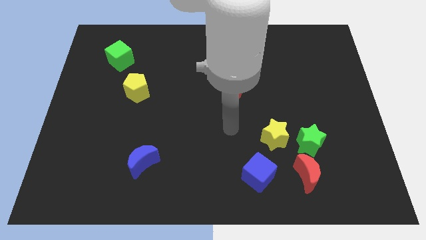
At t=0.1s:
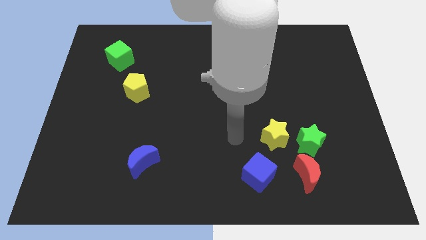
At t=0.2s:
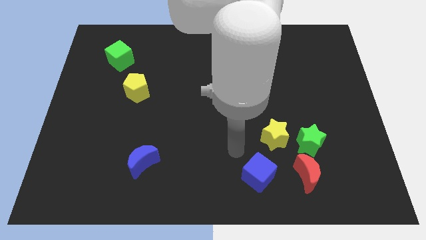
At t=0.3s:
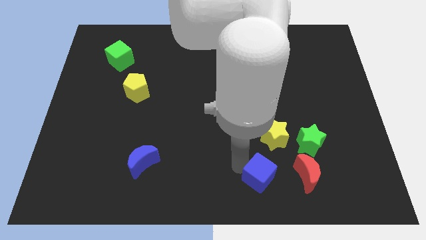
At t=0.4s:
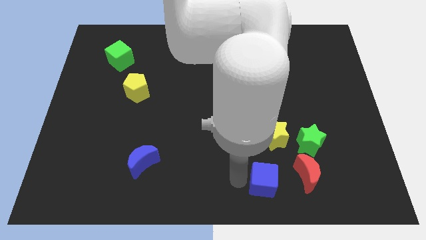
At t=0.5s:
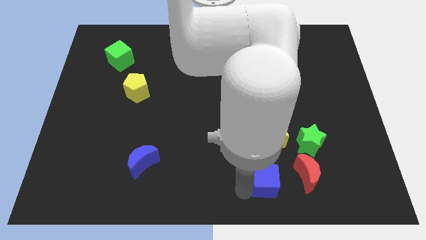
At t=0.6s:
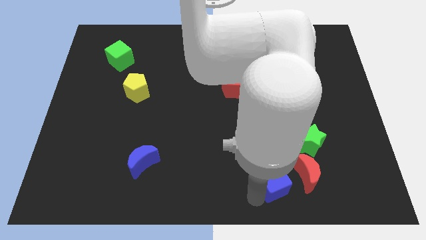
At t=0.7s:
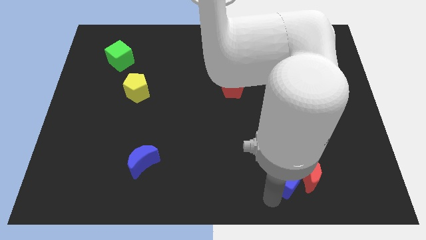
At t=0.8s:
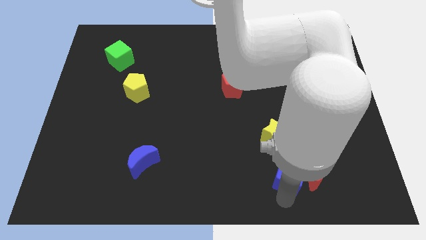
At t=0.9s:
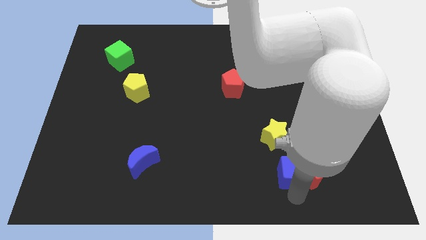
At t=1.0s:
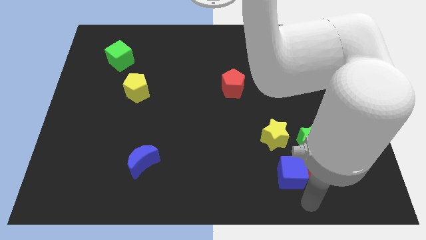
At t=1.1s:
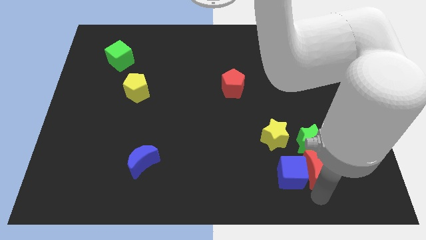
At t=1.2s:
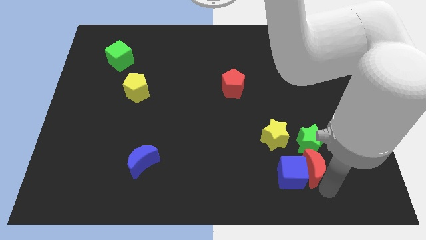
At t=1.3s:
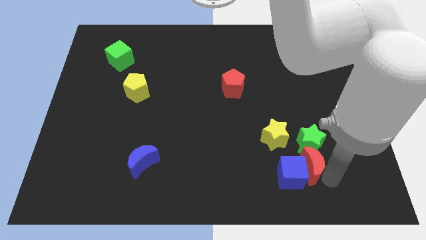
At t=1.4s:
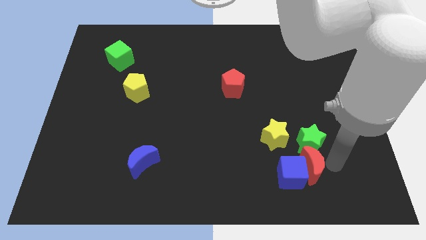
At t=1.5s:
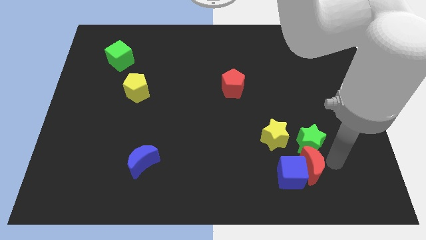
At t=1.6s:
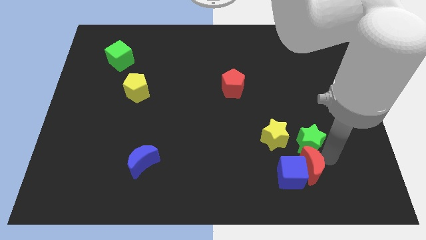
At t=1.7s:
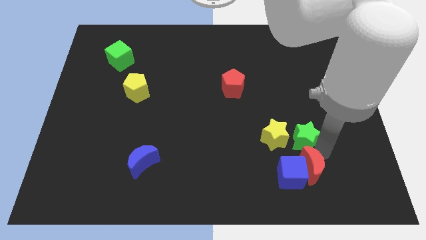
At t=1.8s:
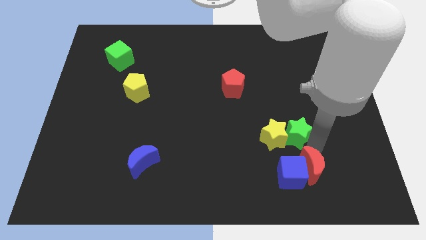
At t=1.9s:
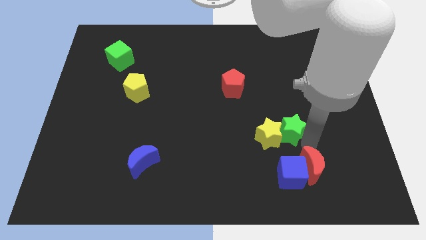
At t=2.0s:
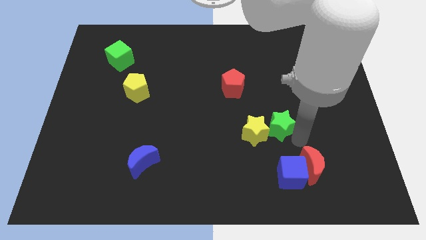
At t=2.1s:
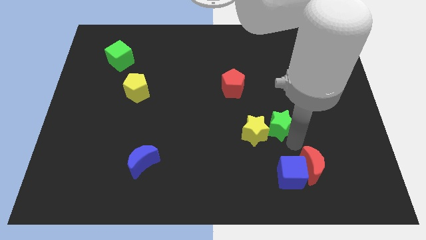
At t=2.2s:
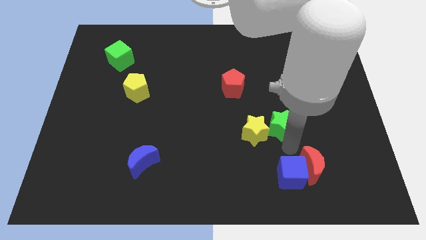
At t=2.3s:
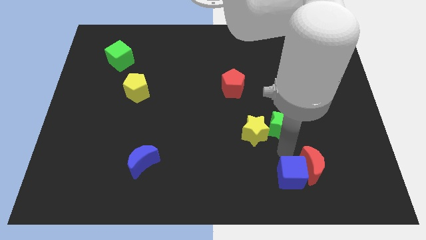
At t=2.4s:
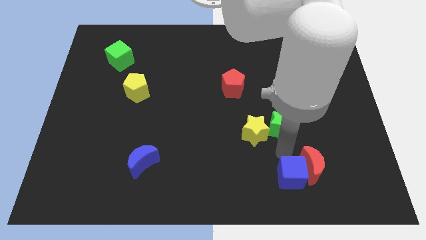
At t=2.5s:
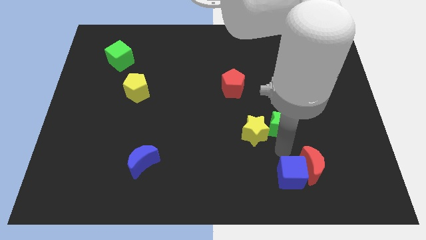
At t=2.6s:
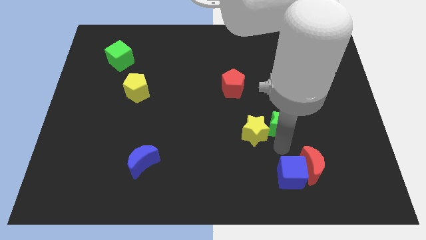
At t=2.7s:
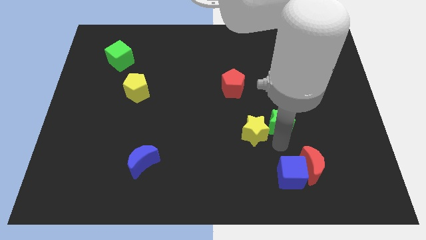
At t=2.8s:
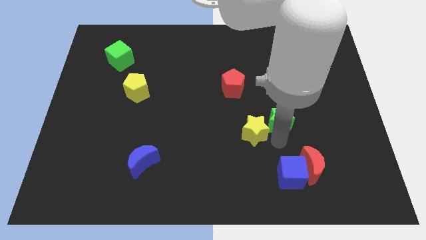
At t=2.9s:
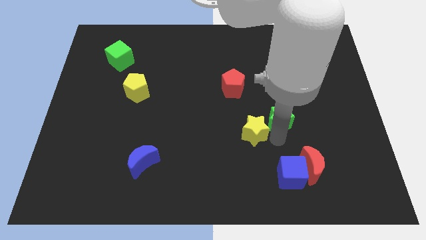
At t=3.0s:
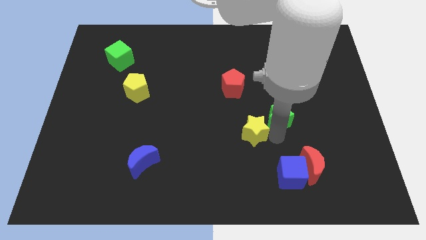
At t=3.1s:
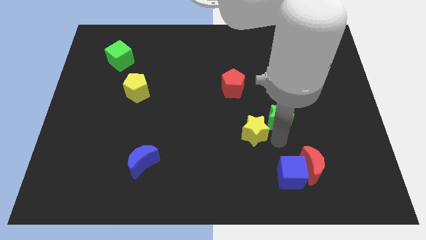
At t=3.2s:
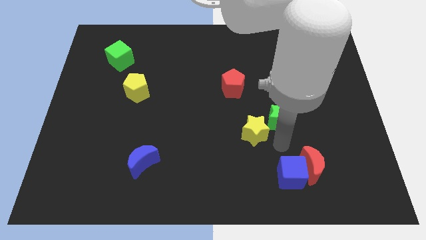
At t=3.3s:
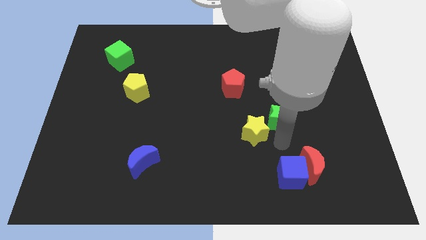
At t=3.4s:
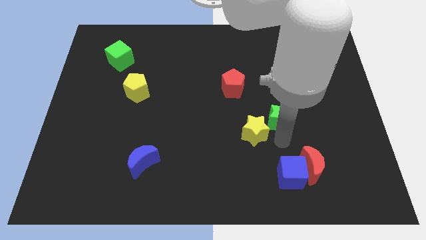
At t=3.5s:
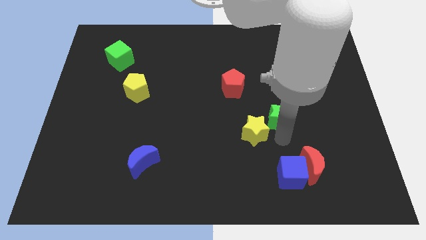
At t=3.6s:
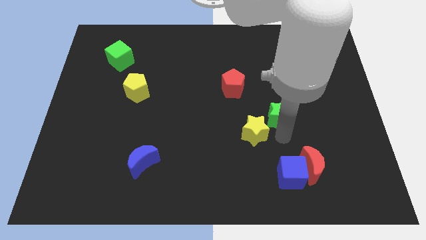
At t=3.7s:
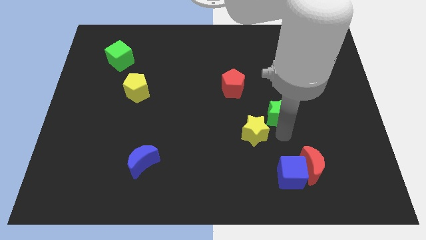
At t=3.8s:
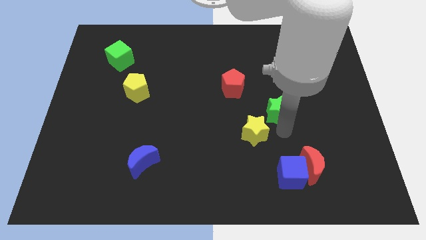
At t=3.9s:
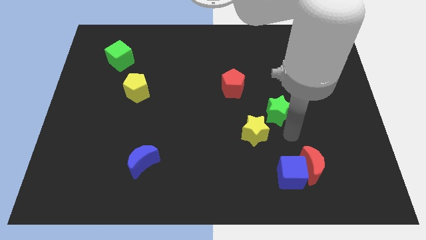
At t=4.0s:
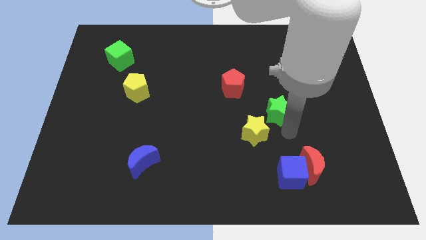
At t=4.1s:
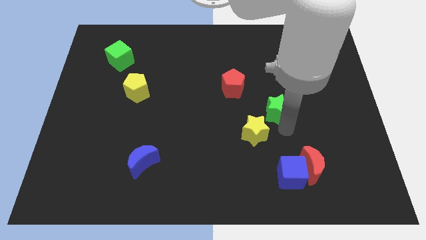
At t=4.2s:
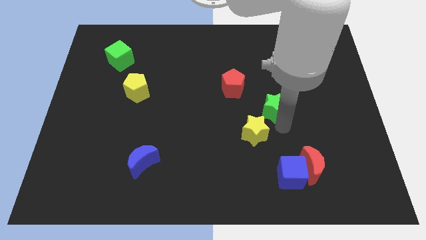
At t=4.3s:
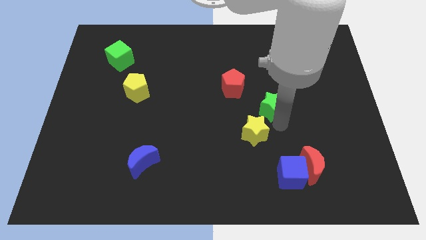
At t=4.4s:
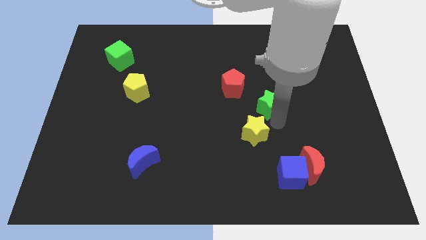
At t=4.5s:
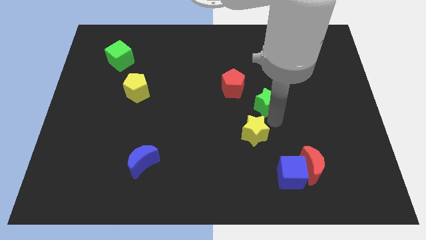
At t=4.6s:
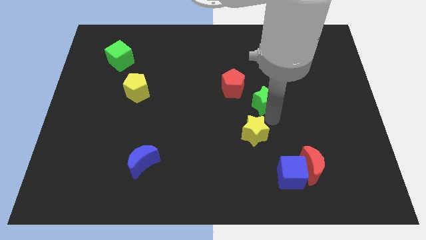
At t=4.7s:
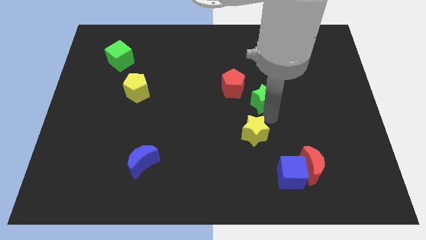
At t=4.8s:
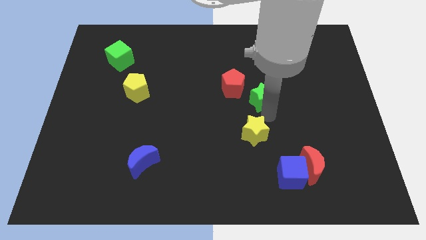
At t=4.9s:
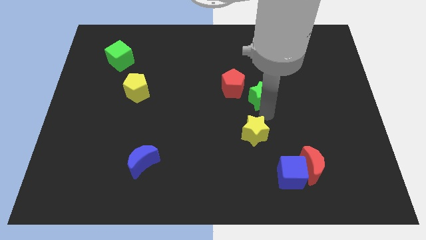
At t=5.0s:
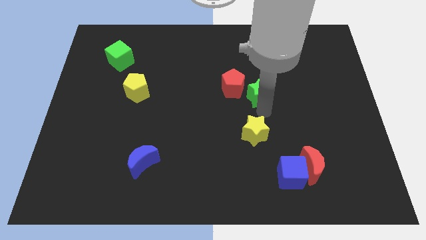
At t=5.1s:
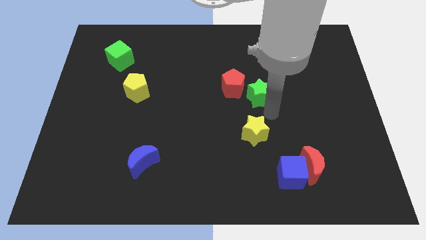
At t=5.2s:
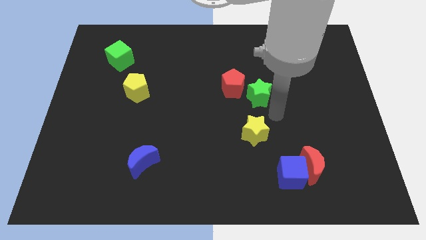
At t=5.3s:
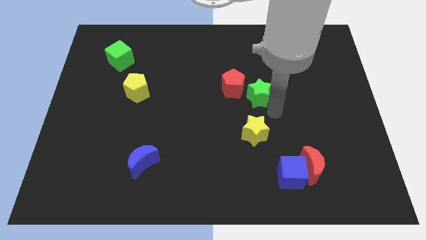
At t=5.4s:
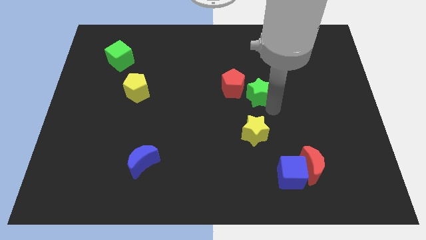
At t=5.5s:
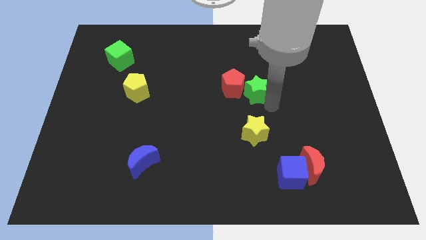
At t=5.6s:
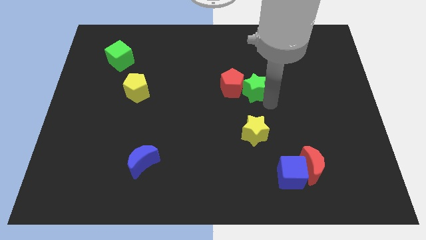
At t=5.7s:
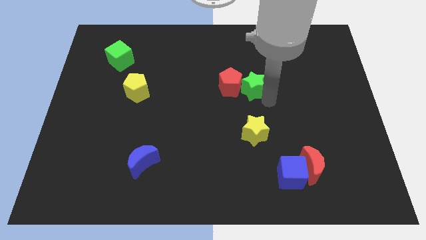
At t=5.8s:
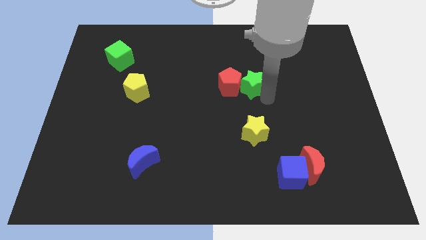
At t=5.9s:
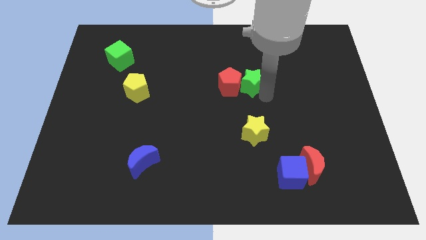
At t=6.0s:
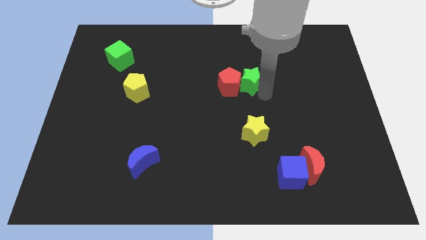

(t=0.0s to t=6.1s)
move the green star diagonally upwards and left

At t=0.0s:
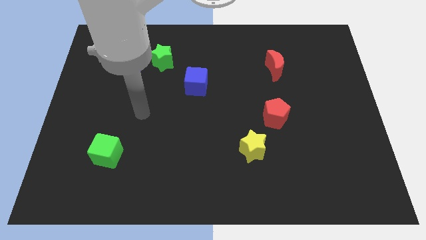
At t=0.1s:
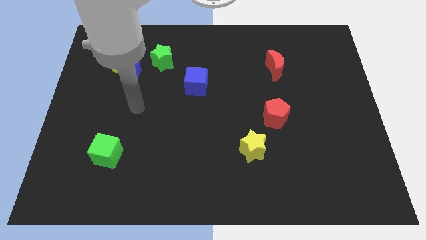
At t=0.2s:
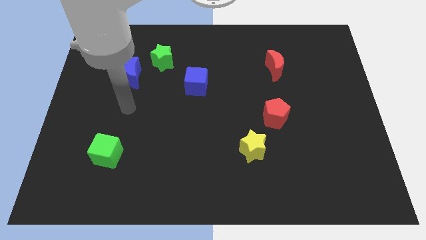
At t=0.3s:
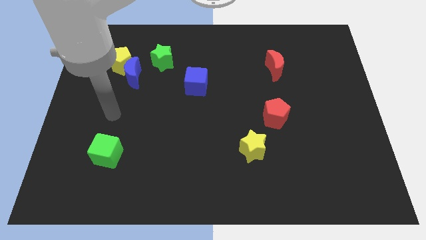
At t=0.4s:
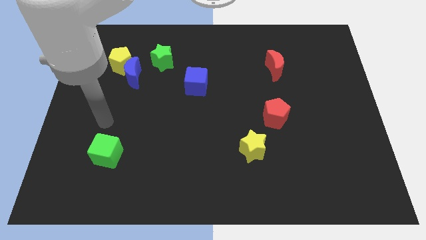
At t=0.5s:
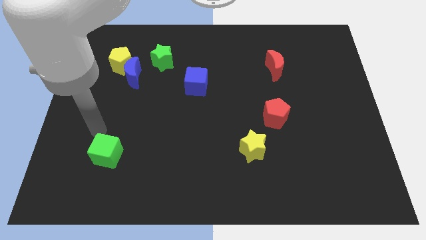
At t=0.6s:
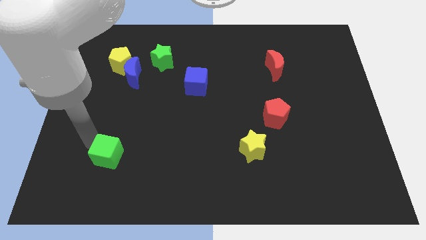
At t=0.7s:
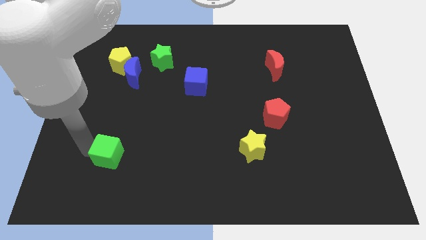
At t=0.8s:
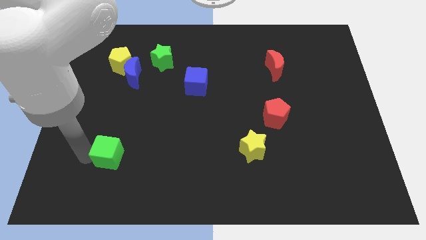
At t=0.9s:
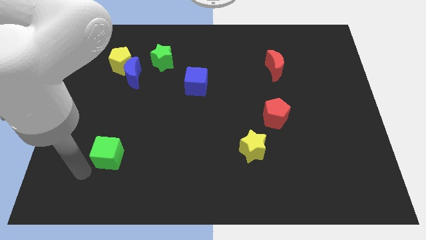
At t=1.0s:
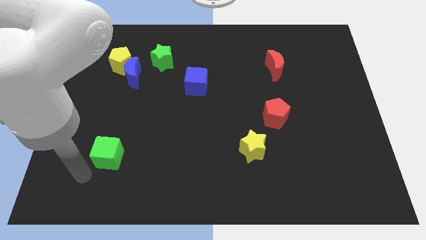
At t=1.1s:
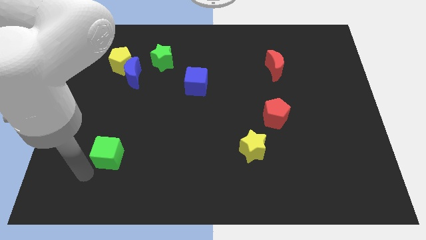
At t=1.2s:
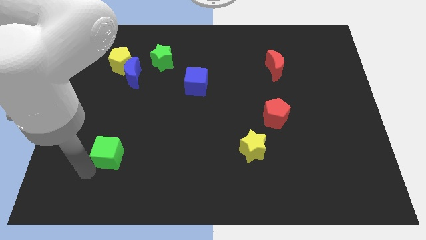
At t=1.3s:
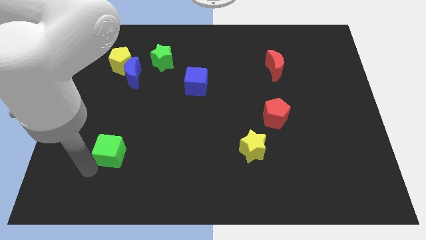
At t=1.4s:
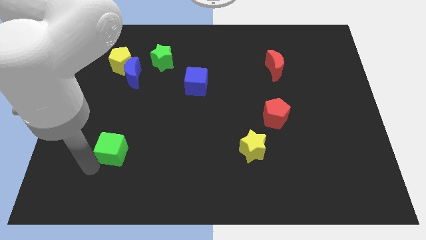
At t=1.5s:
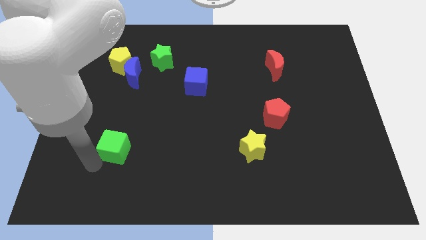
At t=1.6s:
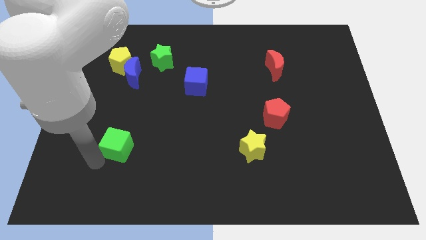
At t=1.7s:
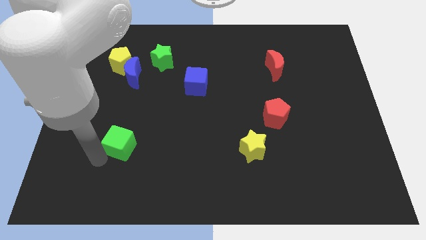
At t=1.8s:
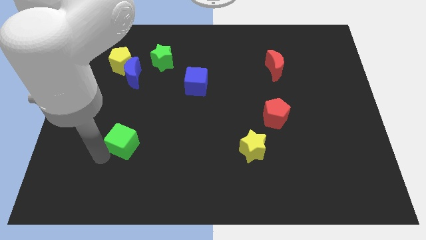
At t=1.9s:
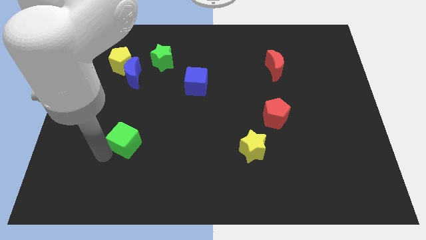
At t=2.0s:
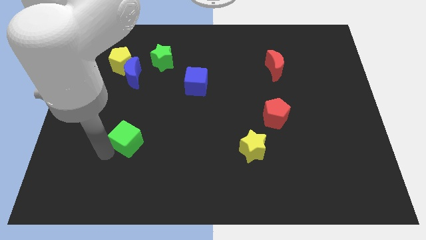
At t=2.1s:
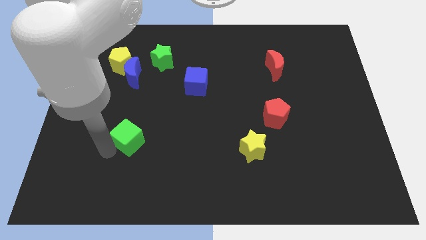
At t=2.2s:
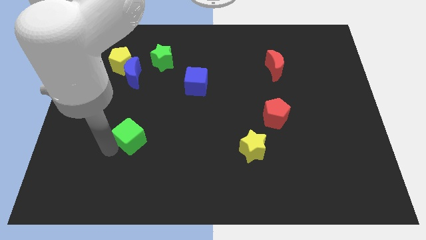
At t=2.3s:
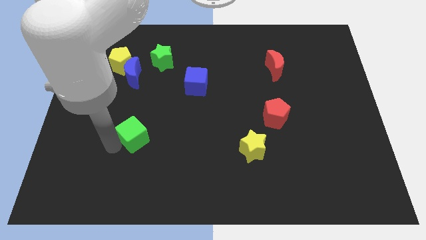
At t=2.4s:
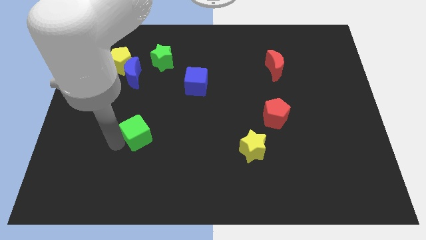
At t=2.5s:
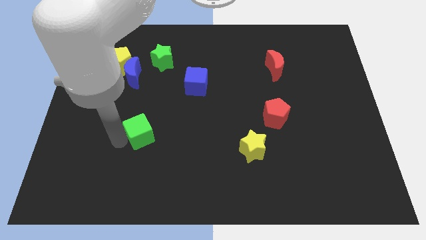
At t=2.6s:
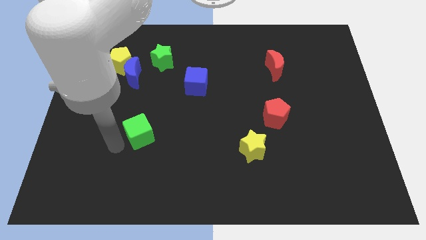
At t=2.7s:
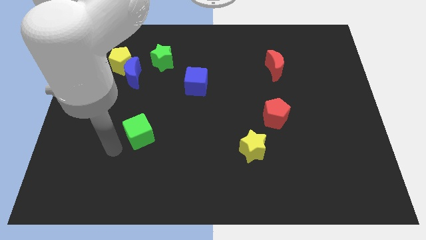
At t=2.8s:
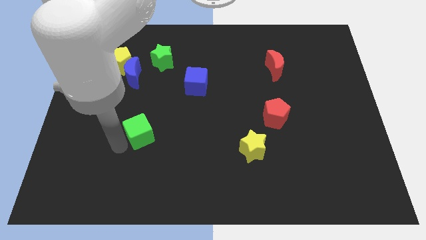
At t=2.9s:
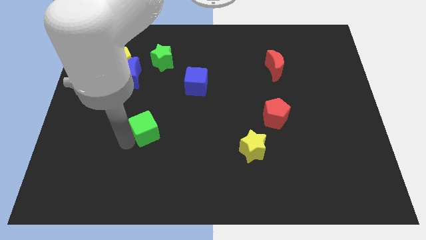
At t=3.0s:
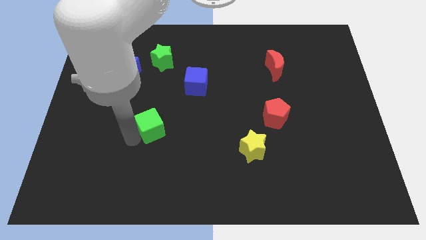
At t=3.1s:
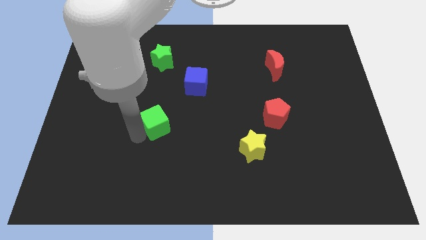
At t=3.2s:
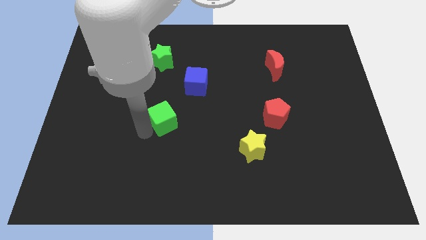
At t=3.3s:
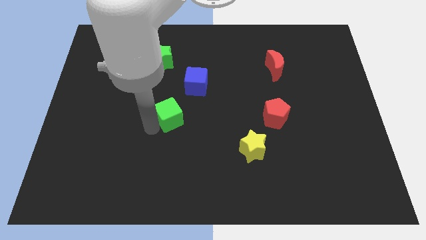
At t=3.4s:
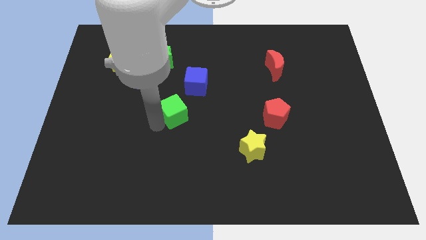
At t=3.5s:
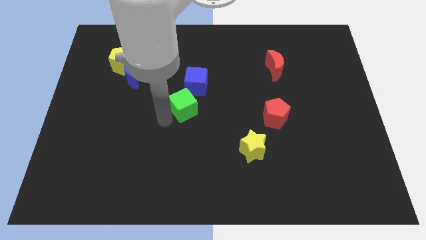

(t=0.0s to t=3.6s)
move the green cube upwards and right diagonally
